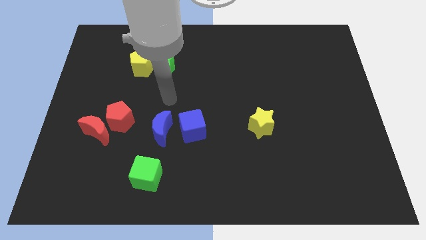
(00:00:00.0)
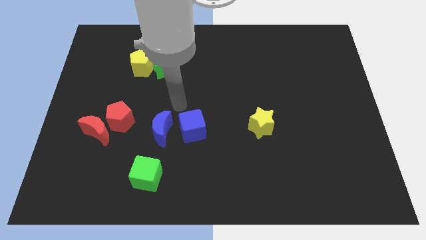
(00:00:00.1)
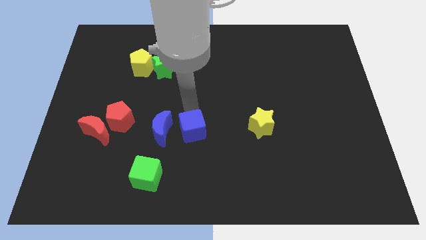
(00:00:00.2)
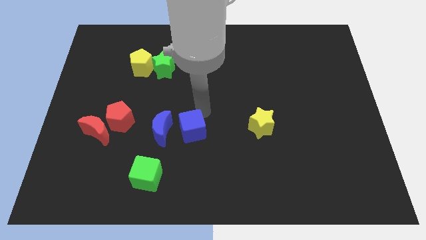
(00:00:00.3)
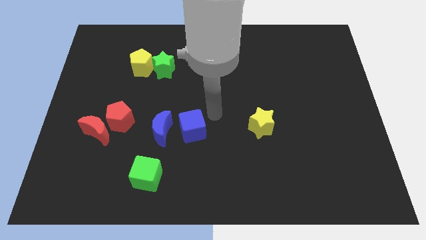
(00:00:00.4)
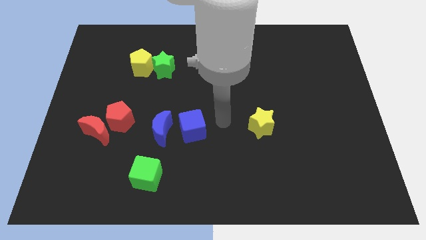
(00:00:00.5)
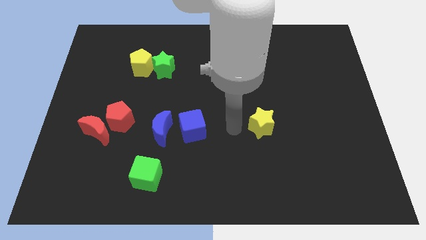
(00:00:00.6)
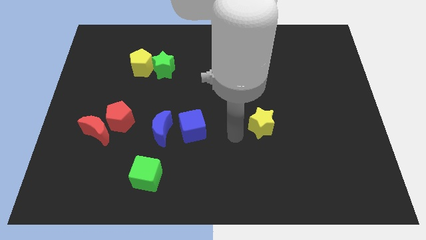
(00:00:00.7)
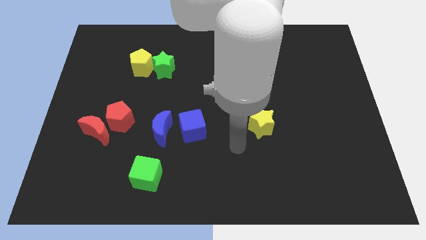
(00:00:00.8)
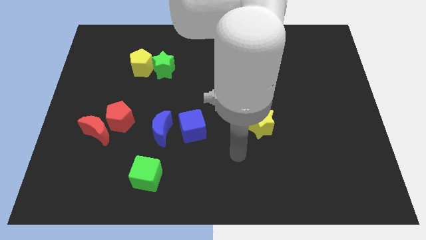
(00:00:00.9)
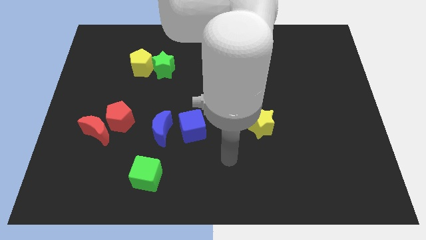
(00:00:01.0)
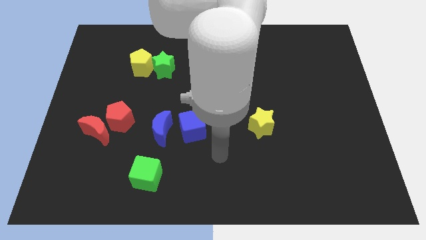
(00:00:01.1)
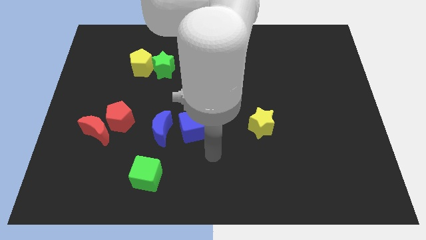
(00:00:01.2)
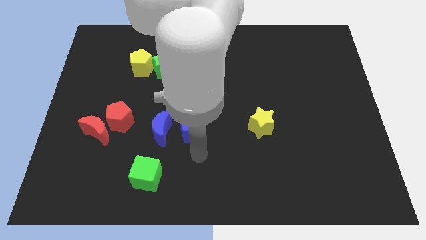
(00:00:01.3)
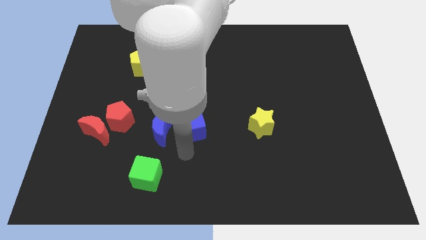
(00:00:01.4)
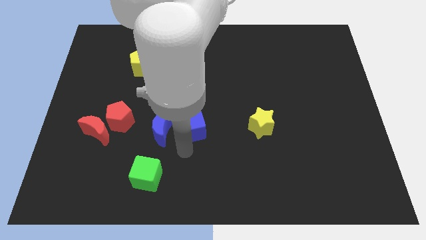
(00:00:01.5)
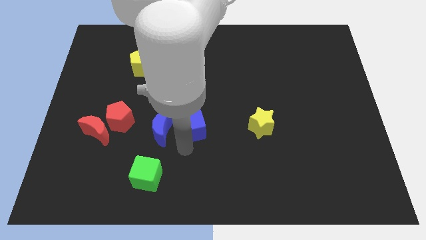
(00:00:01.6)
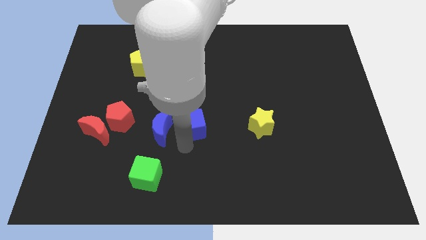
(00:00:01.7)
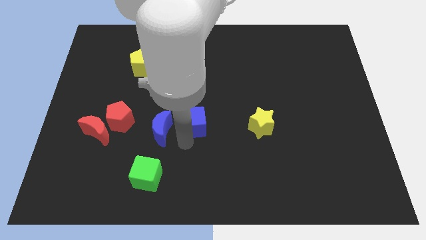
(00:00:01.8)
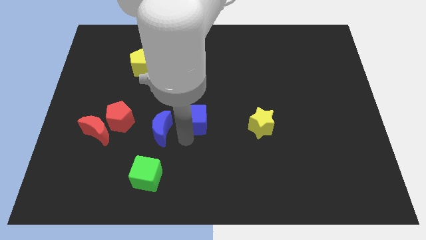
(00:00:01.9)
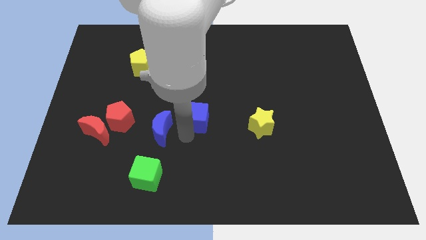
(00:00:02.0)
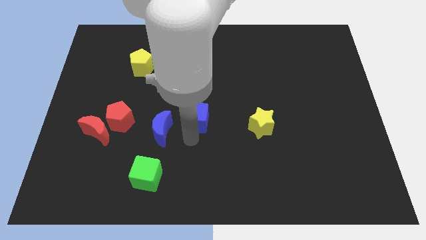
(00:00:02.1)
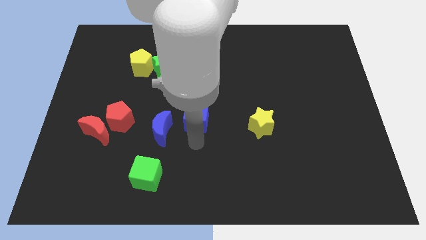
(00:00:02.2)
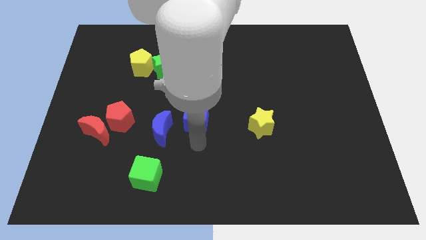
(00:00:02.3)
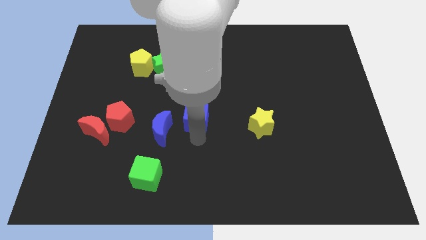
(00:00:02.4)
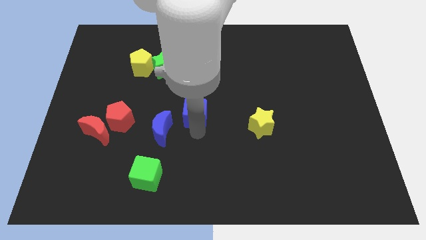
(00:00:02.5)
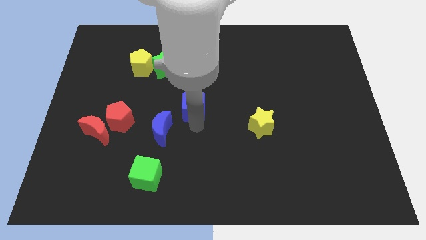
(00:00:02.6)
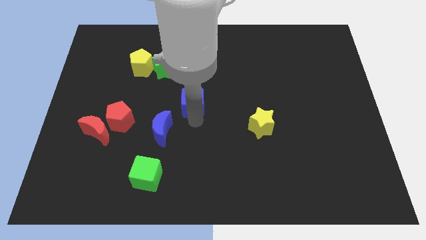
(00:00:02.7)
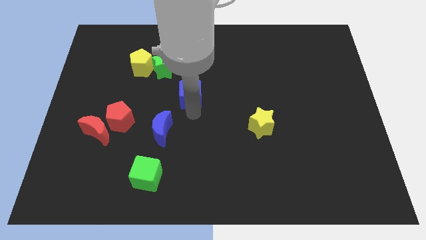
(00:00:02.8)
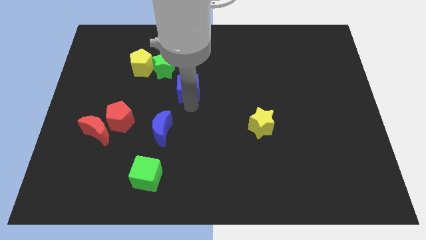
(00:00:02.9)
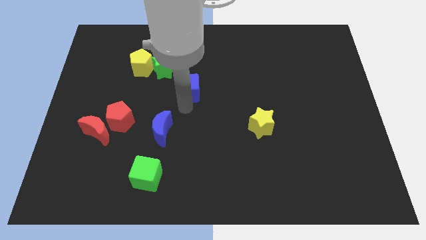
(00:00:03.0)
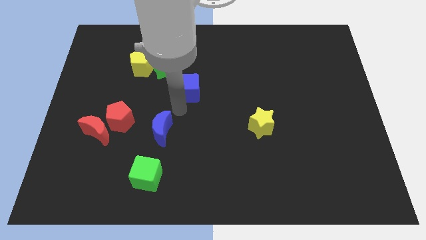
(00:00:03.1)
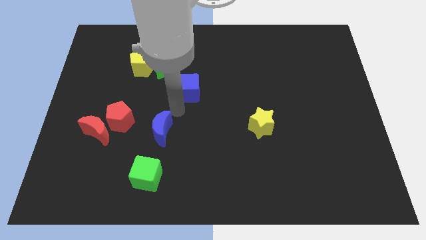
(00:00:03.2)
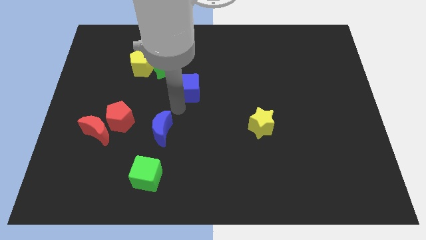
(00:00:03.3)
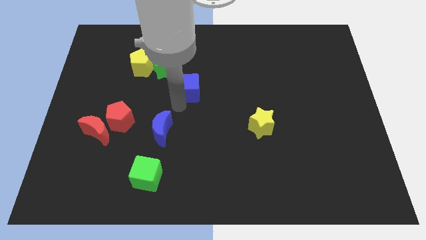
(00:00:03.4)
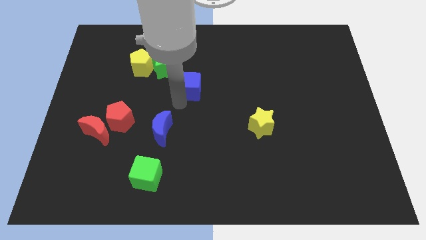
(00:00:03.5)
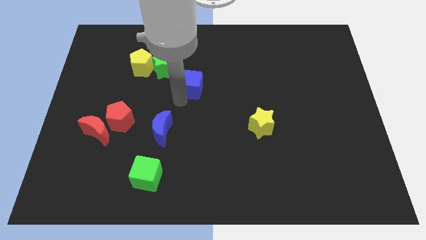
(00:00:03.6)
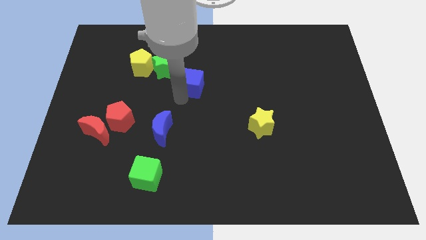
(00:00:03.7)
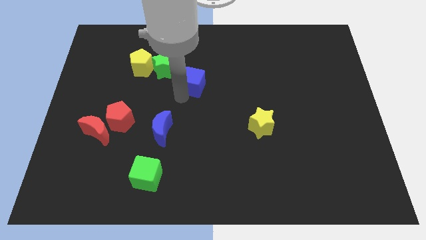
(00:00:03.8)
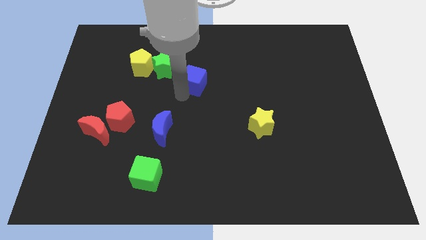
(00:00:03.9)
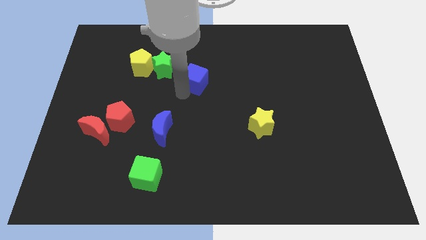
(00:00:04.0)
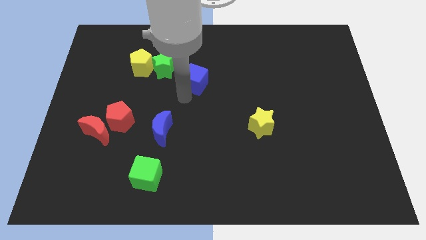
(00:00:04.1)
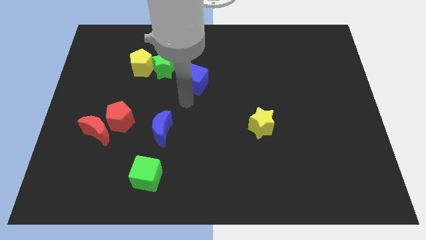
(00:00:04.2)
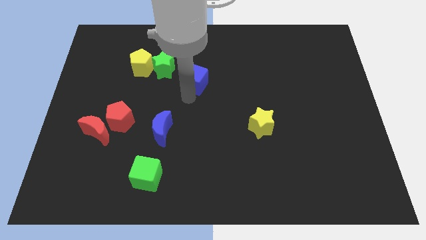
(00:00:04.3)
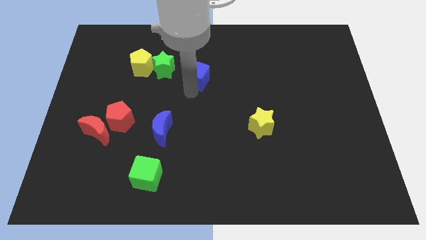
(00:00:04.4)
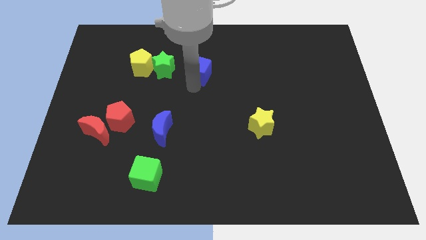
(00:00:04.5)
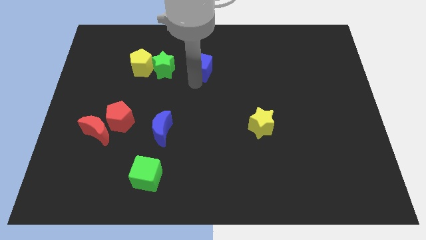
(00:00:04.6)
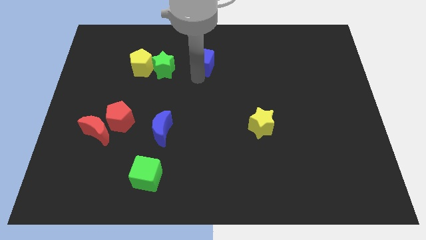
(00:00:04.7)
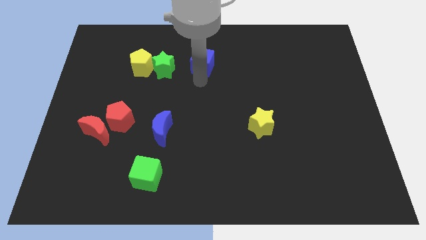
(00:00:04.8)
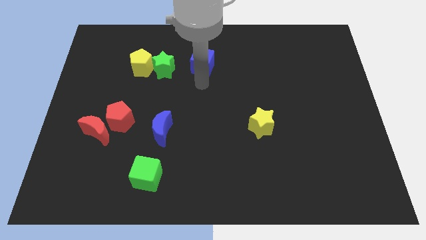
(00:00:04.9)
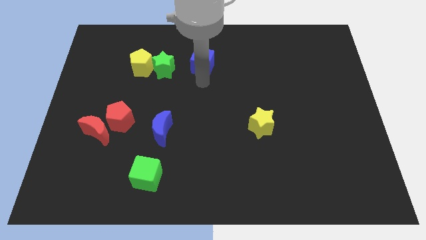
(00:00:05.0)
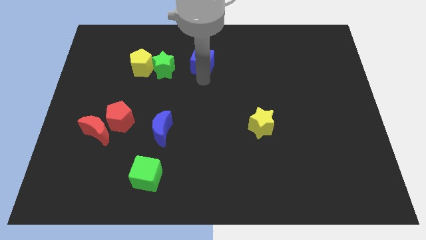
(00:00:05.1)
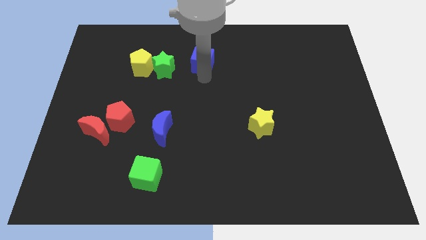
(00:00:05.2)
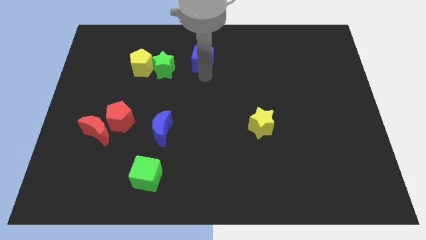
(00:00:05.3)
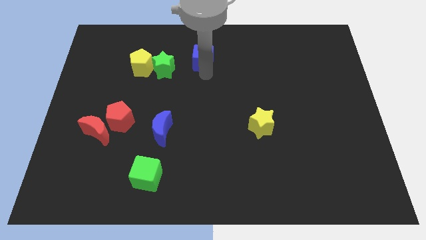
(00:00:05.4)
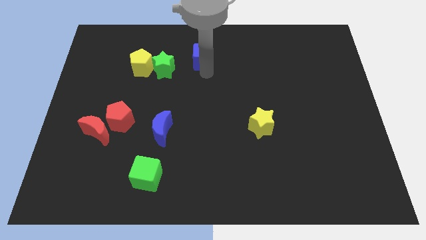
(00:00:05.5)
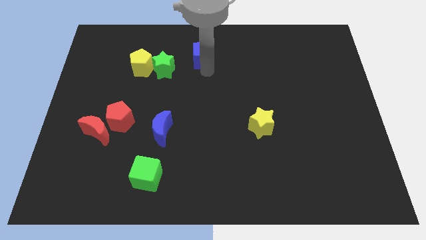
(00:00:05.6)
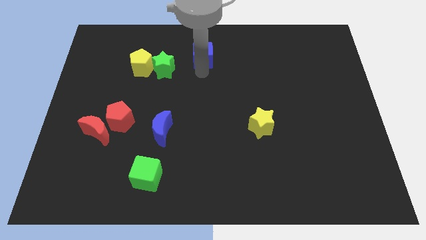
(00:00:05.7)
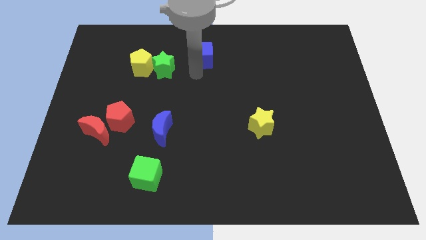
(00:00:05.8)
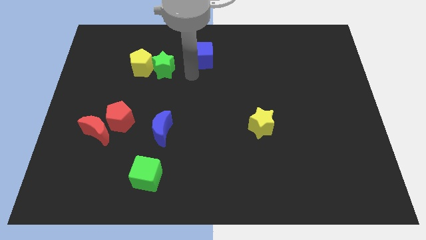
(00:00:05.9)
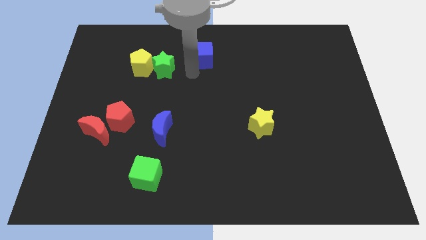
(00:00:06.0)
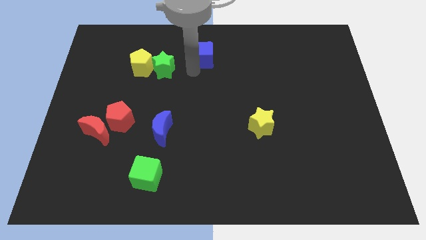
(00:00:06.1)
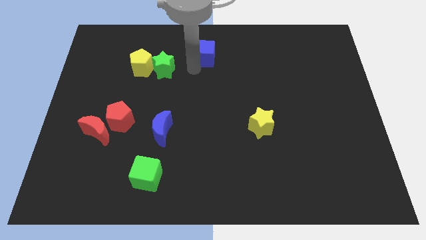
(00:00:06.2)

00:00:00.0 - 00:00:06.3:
push the blue cube to the top
